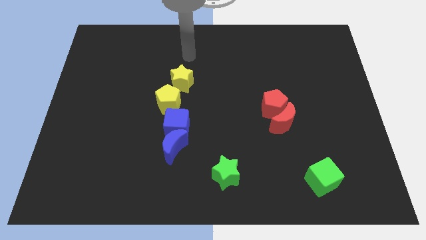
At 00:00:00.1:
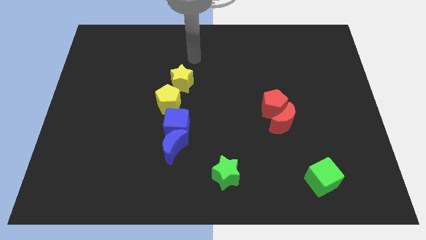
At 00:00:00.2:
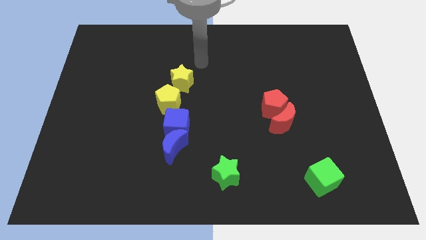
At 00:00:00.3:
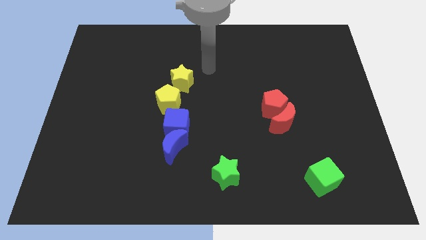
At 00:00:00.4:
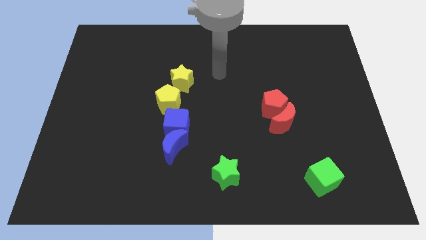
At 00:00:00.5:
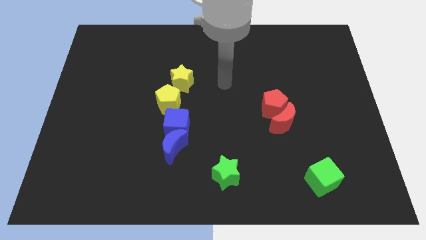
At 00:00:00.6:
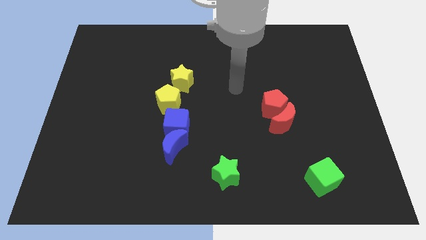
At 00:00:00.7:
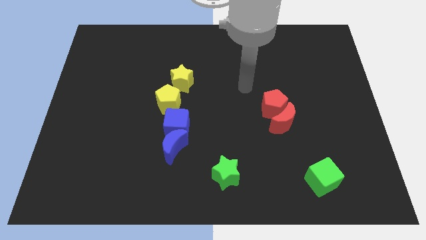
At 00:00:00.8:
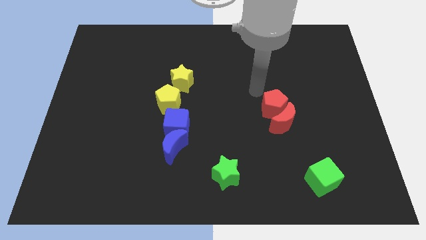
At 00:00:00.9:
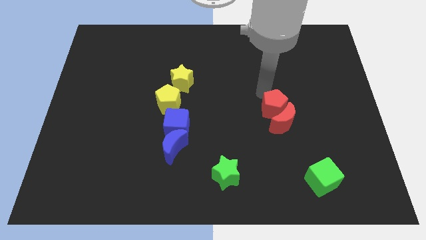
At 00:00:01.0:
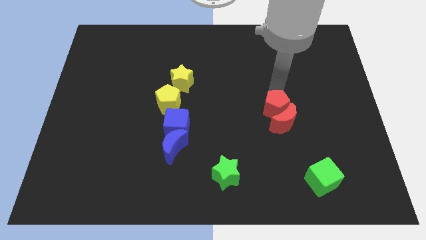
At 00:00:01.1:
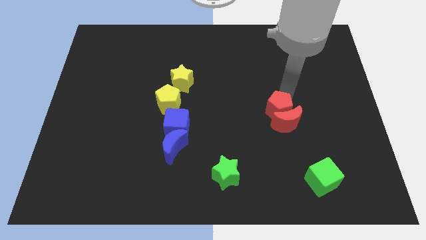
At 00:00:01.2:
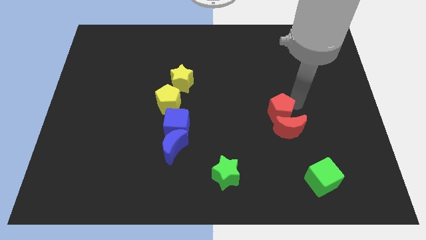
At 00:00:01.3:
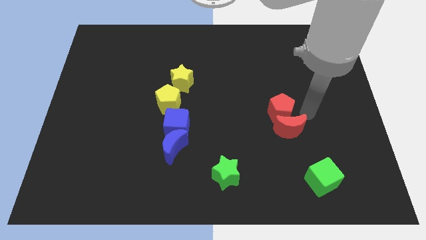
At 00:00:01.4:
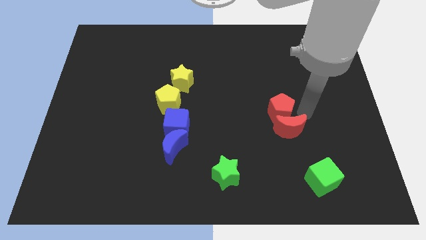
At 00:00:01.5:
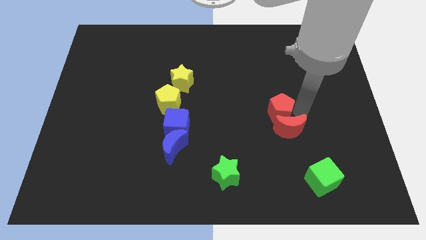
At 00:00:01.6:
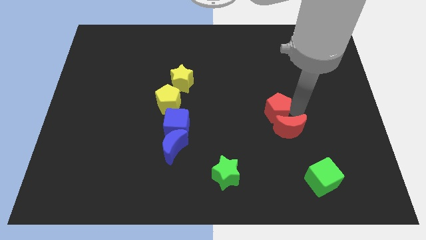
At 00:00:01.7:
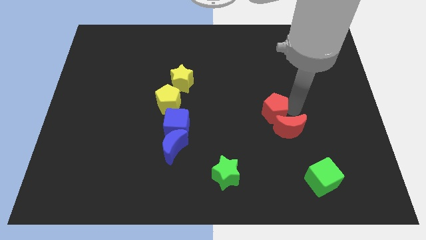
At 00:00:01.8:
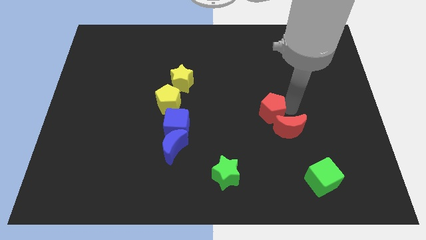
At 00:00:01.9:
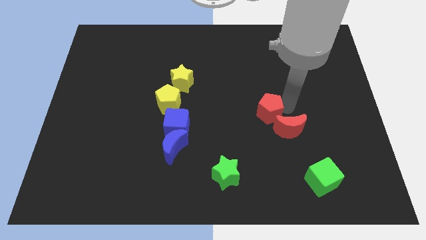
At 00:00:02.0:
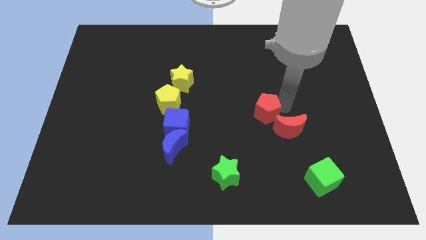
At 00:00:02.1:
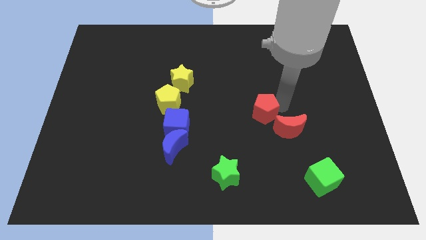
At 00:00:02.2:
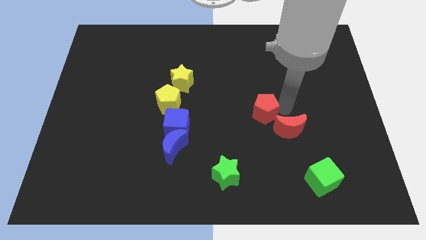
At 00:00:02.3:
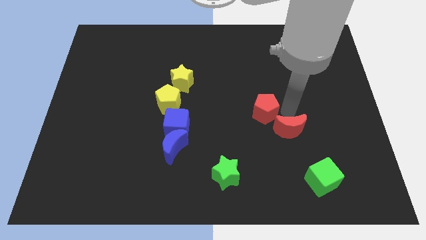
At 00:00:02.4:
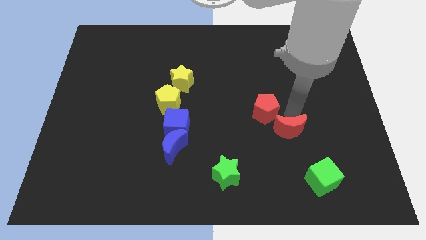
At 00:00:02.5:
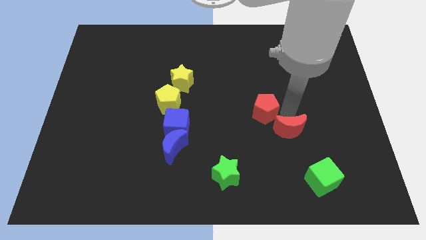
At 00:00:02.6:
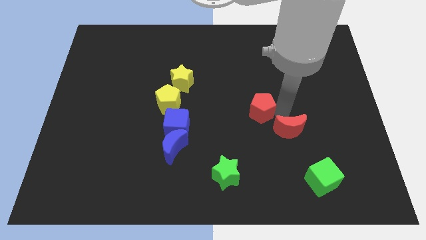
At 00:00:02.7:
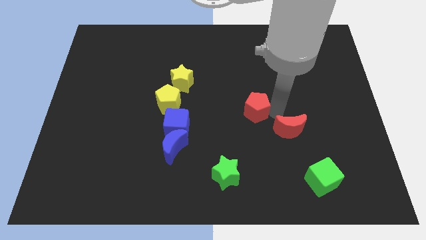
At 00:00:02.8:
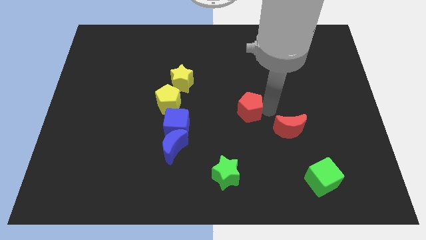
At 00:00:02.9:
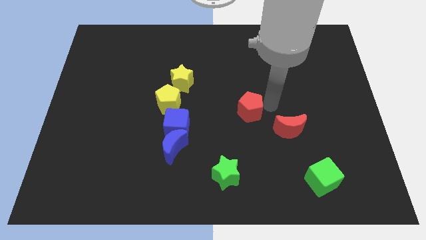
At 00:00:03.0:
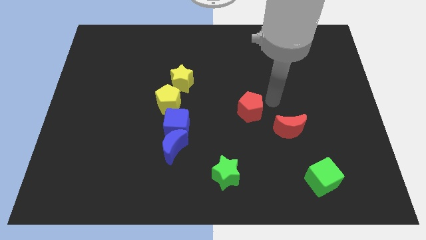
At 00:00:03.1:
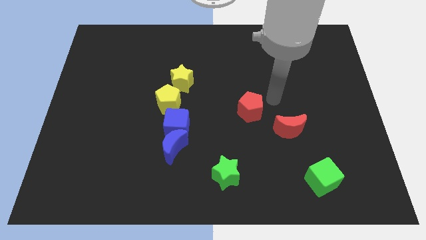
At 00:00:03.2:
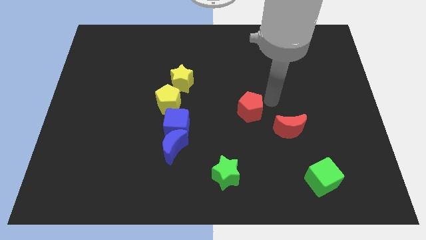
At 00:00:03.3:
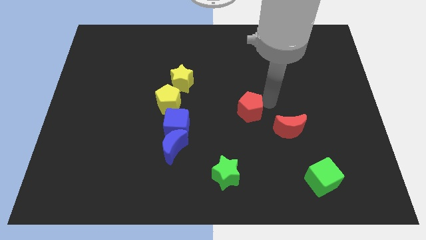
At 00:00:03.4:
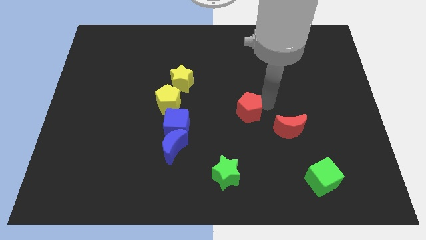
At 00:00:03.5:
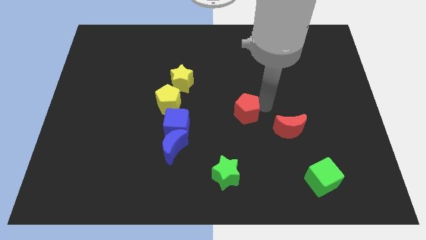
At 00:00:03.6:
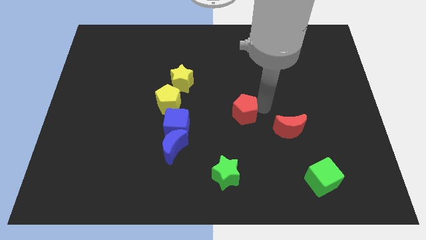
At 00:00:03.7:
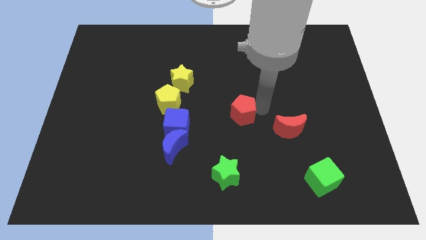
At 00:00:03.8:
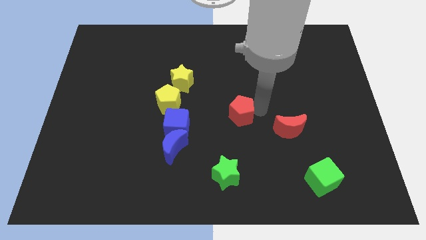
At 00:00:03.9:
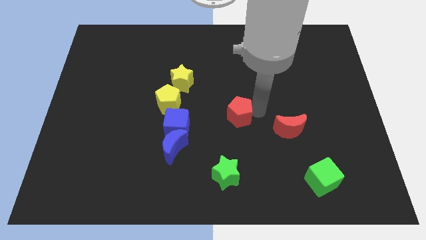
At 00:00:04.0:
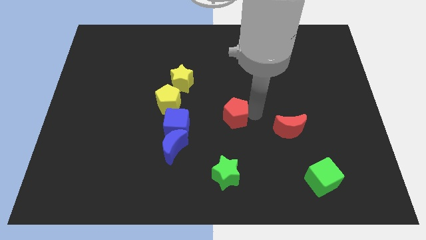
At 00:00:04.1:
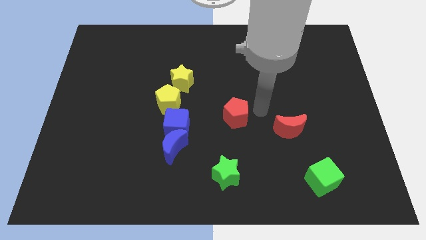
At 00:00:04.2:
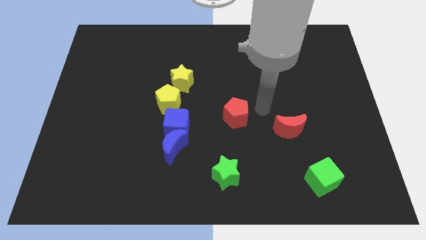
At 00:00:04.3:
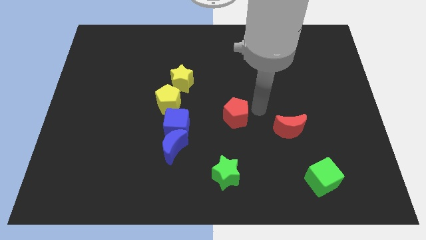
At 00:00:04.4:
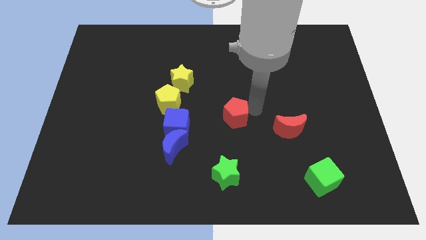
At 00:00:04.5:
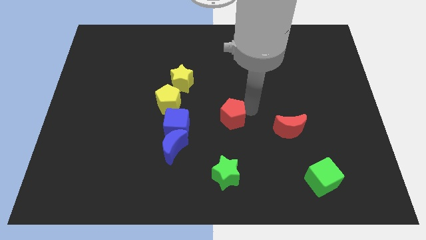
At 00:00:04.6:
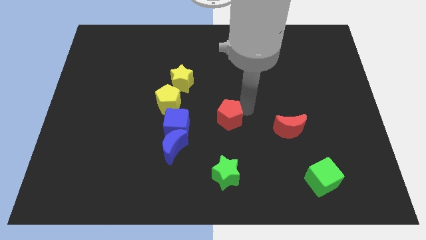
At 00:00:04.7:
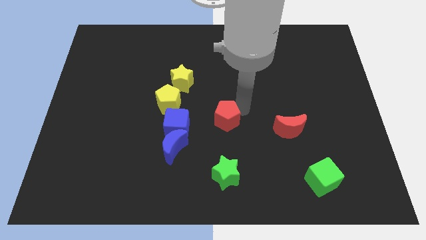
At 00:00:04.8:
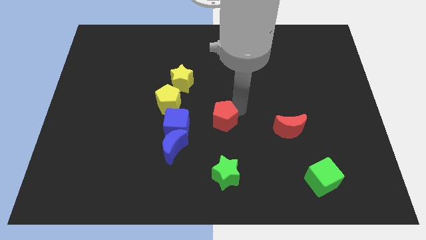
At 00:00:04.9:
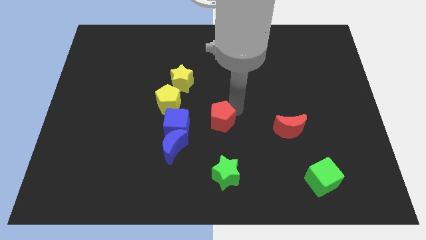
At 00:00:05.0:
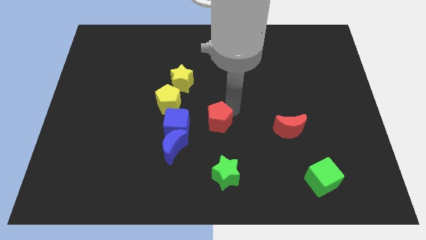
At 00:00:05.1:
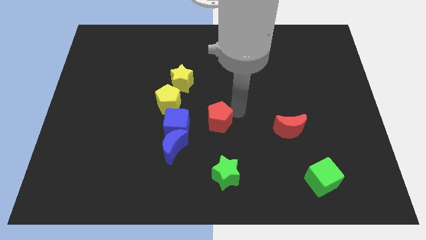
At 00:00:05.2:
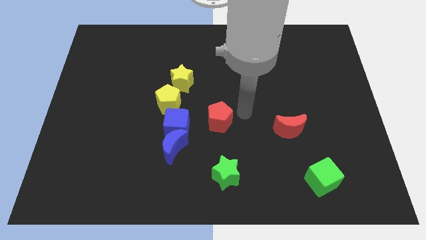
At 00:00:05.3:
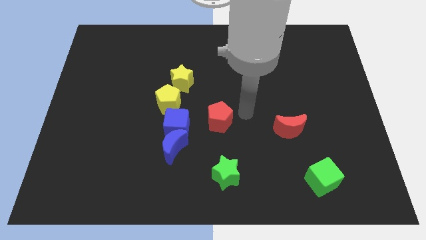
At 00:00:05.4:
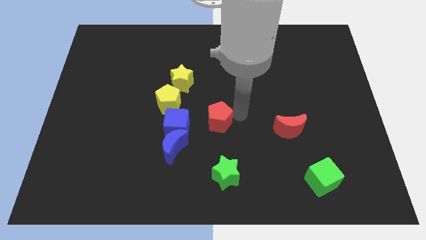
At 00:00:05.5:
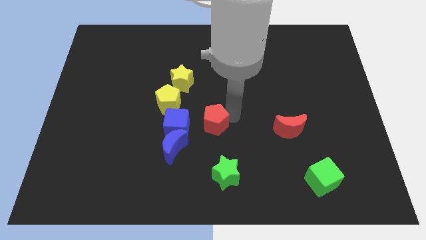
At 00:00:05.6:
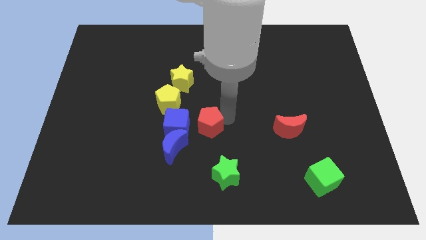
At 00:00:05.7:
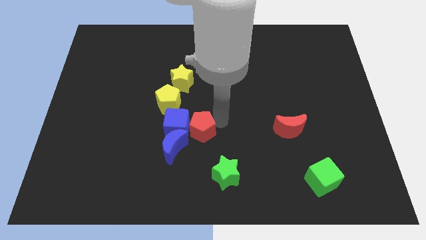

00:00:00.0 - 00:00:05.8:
move the red pentagon close to the blue cube

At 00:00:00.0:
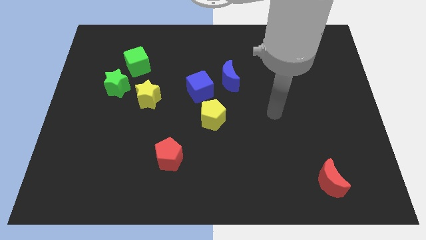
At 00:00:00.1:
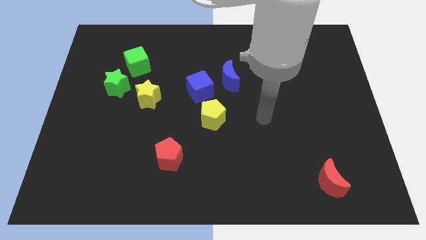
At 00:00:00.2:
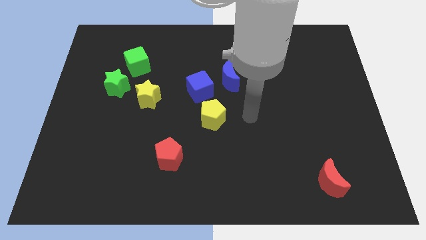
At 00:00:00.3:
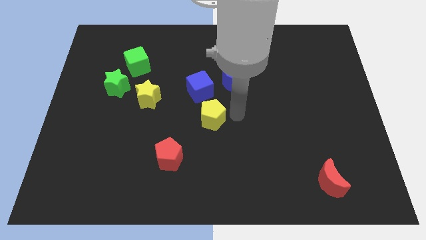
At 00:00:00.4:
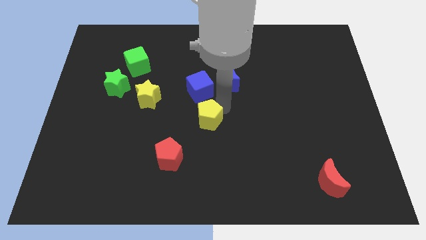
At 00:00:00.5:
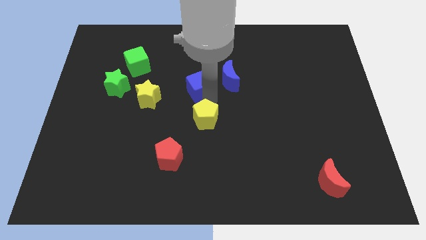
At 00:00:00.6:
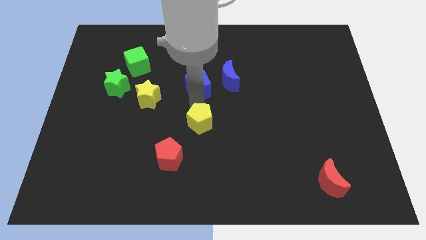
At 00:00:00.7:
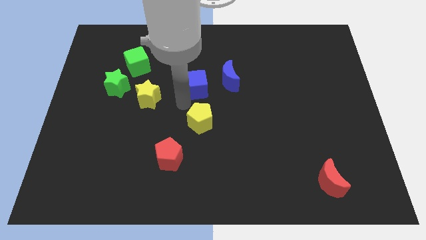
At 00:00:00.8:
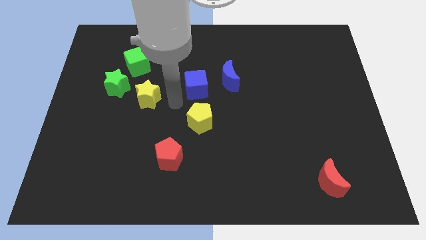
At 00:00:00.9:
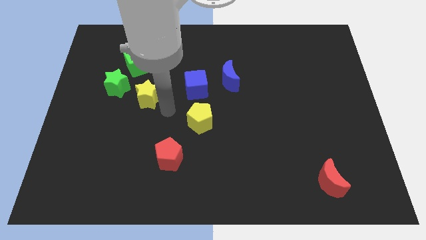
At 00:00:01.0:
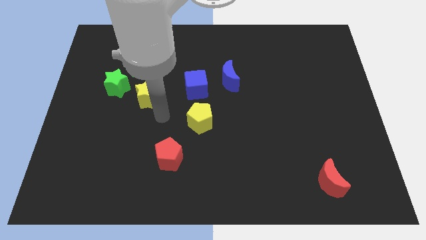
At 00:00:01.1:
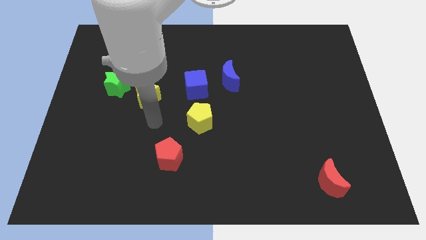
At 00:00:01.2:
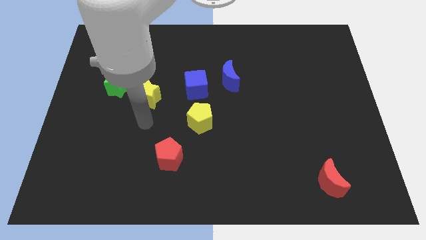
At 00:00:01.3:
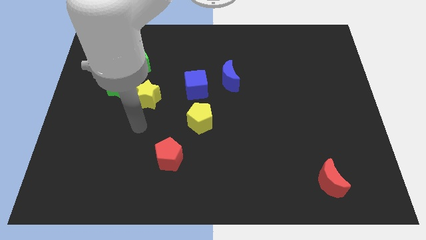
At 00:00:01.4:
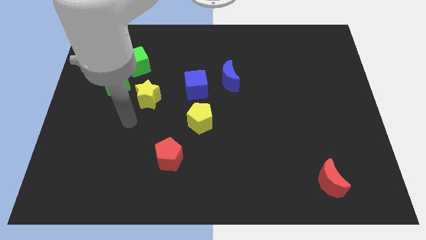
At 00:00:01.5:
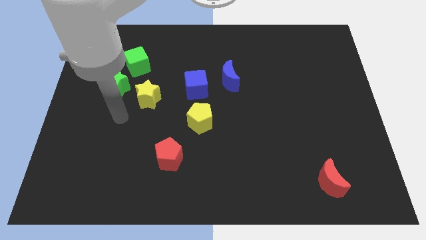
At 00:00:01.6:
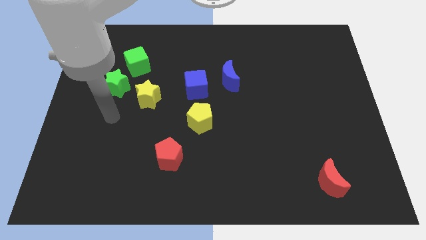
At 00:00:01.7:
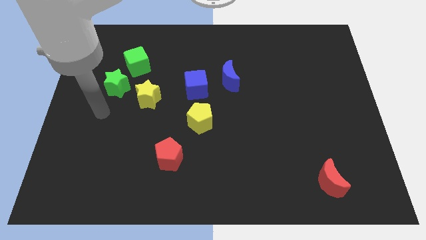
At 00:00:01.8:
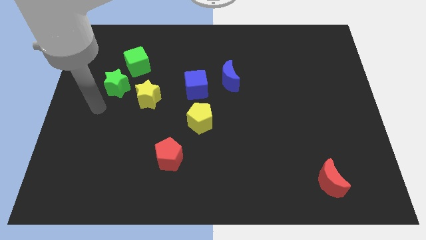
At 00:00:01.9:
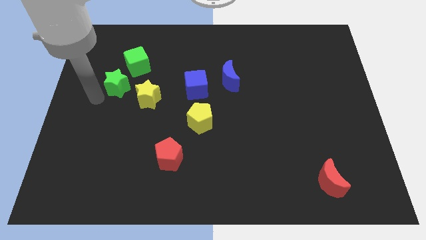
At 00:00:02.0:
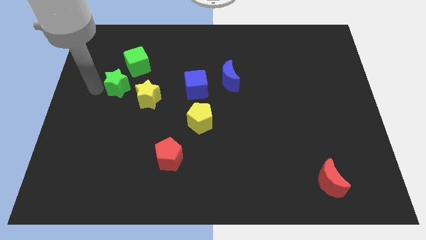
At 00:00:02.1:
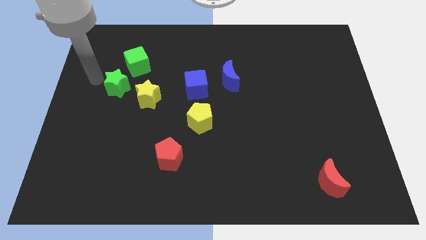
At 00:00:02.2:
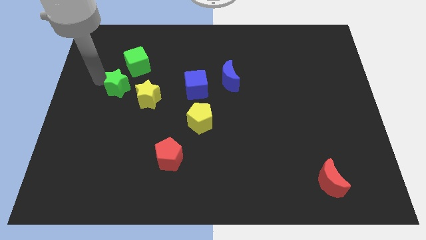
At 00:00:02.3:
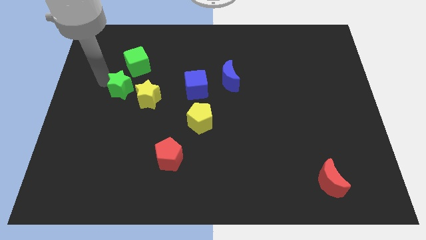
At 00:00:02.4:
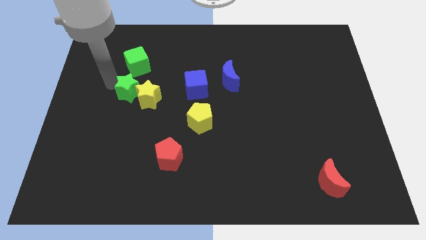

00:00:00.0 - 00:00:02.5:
push the green star next to the yellow star
